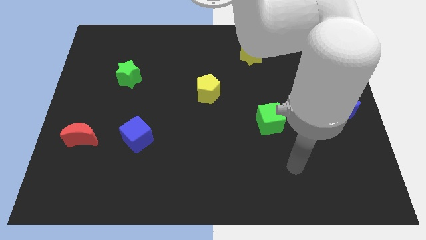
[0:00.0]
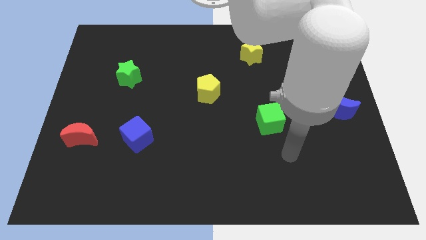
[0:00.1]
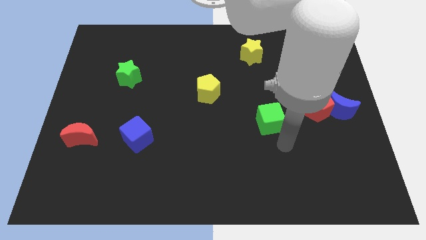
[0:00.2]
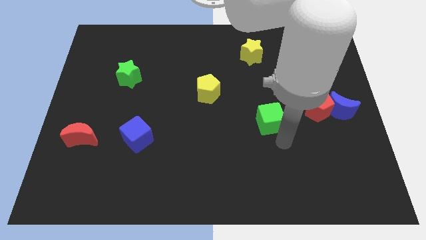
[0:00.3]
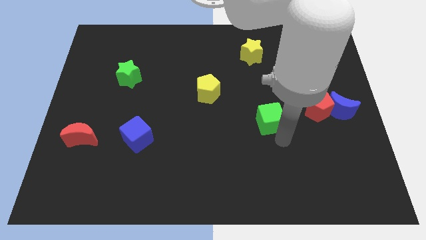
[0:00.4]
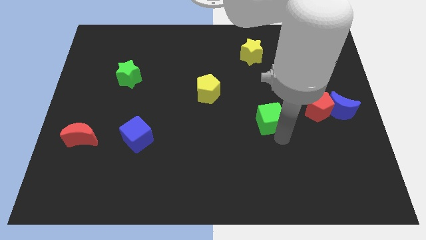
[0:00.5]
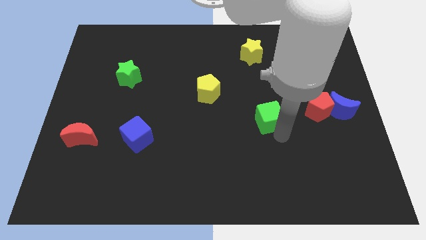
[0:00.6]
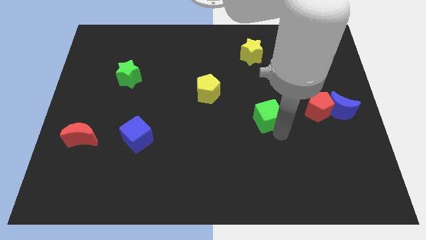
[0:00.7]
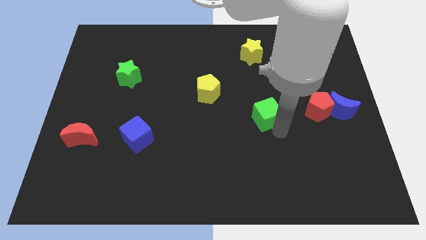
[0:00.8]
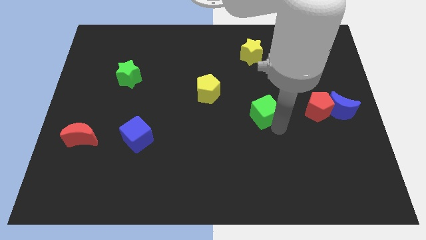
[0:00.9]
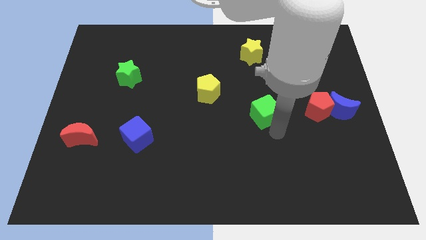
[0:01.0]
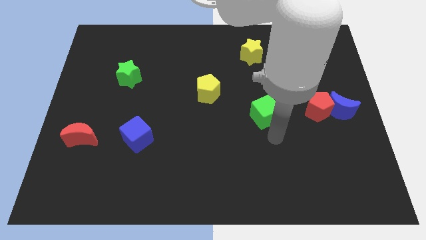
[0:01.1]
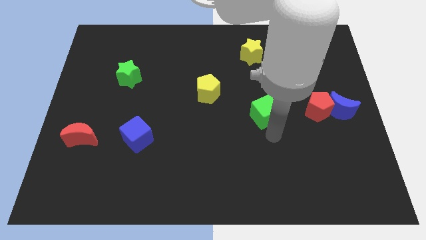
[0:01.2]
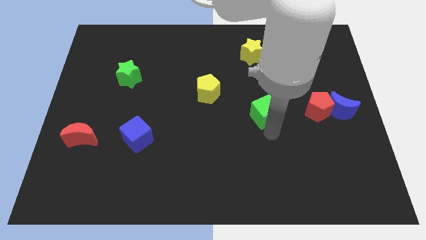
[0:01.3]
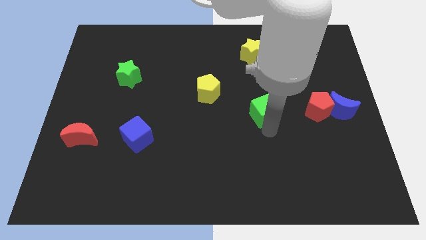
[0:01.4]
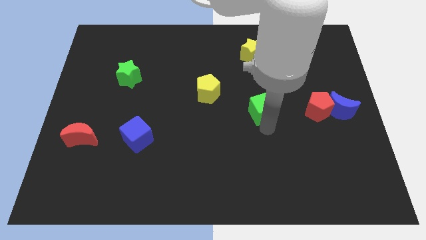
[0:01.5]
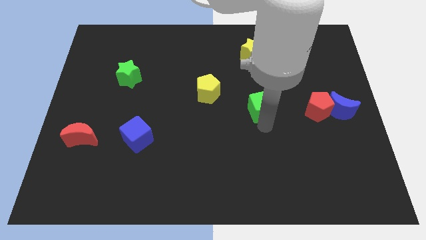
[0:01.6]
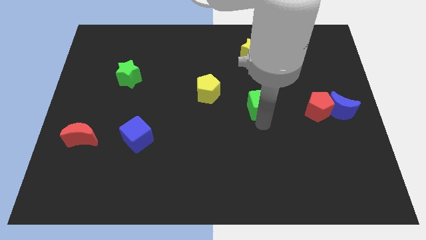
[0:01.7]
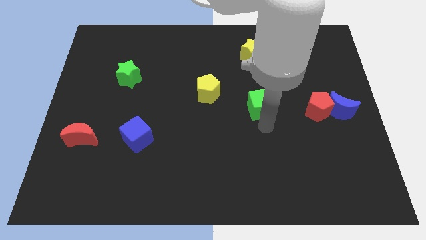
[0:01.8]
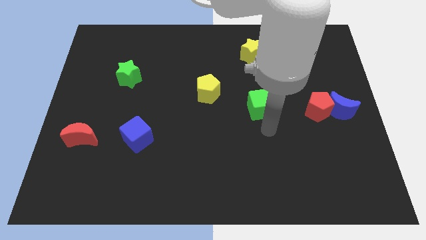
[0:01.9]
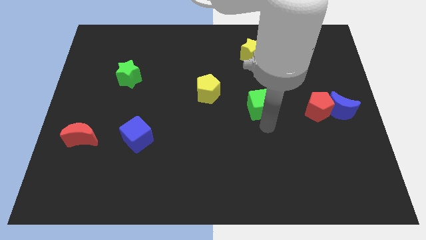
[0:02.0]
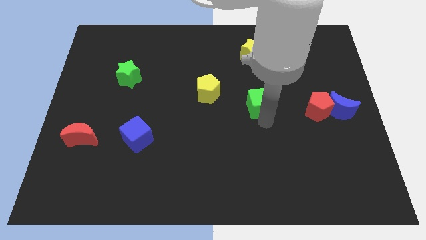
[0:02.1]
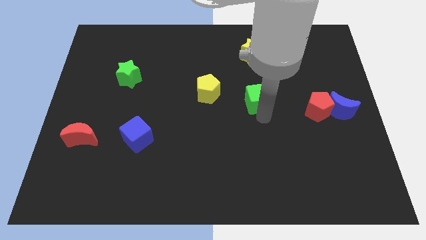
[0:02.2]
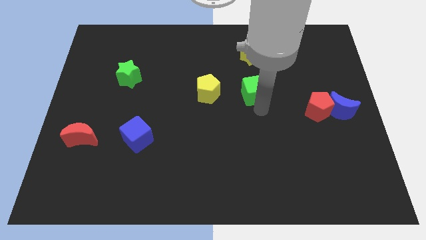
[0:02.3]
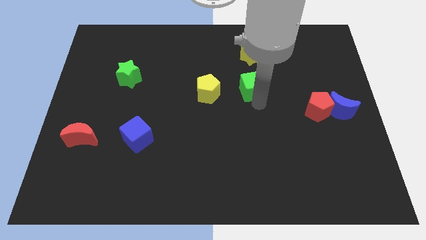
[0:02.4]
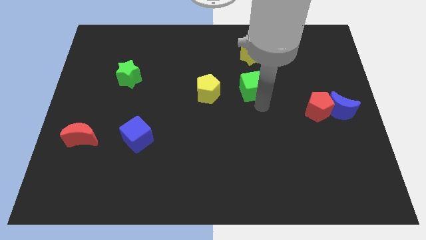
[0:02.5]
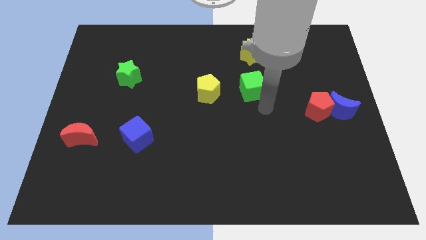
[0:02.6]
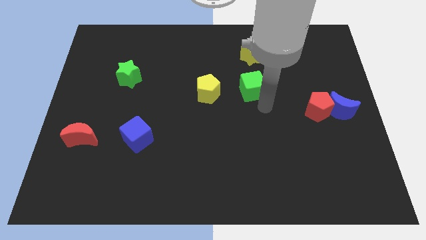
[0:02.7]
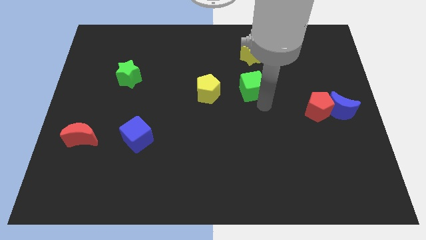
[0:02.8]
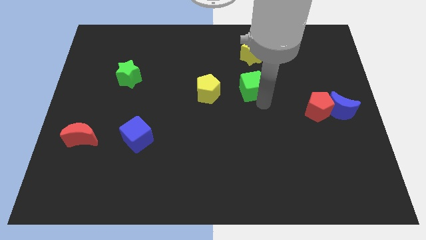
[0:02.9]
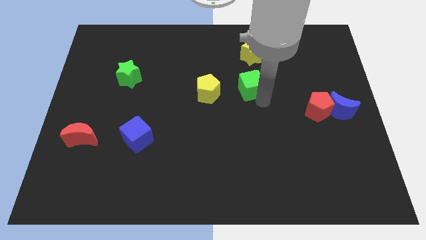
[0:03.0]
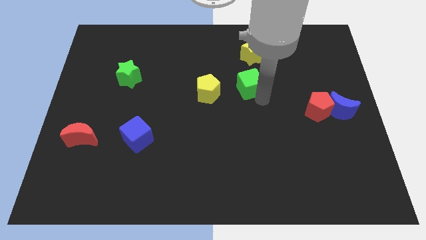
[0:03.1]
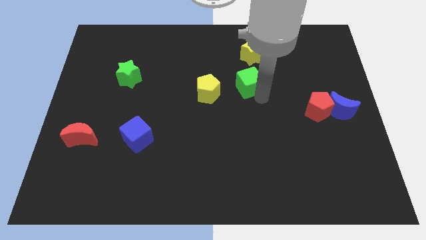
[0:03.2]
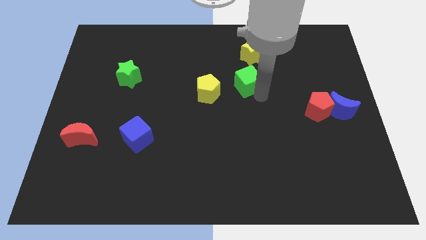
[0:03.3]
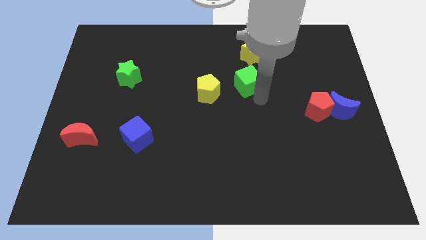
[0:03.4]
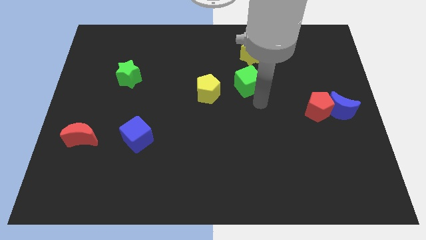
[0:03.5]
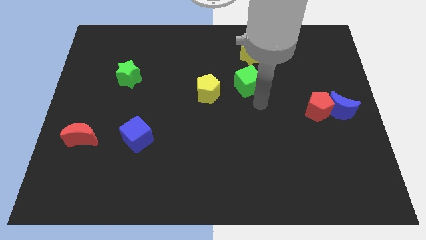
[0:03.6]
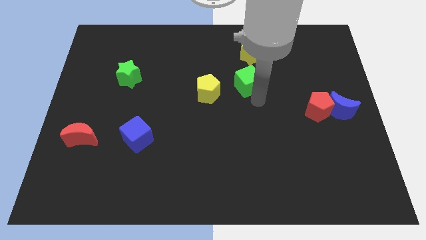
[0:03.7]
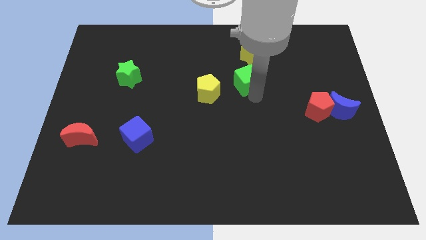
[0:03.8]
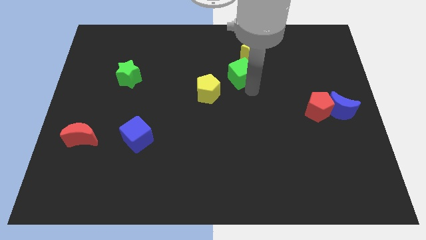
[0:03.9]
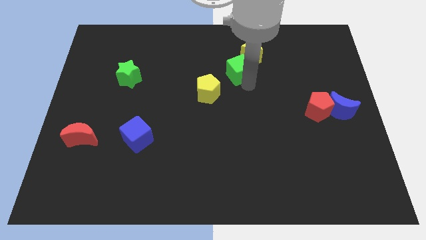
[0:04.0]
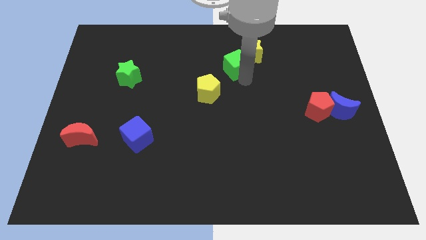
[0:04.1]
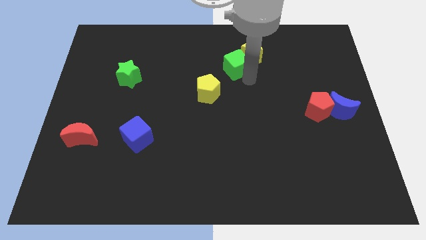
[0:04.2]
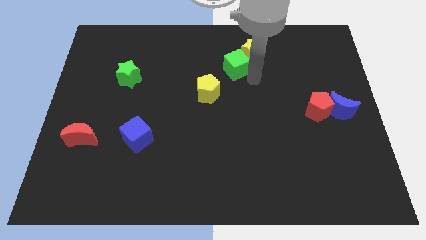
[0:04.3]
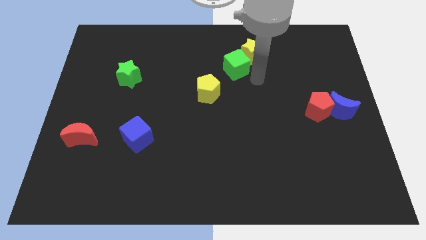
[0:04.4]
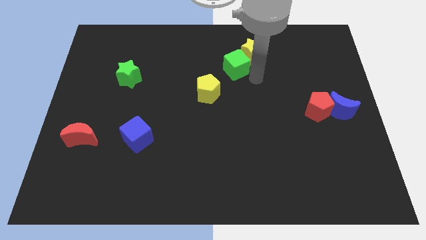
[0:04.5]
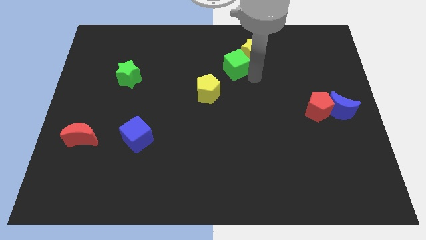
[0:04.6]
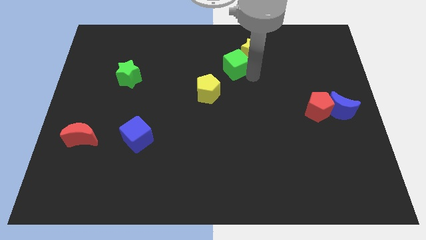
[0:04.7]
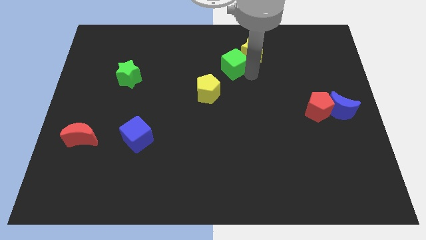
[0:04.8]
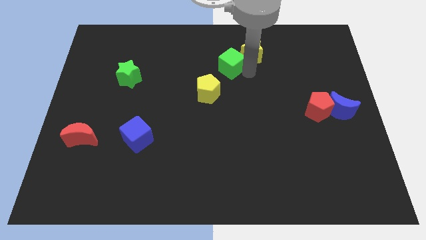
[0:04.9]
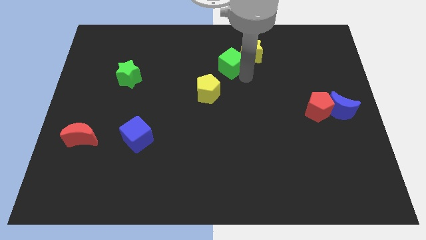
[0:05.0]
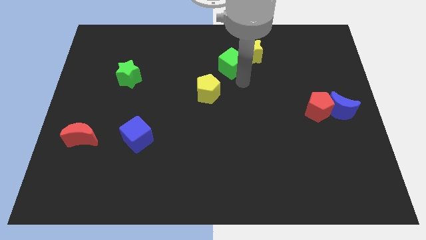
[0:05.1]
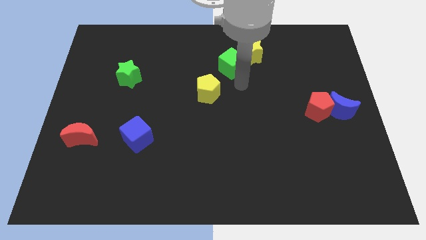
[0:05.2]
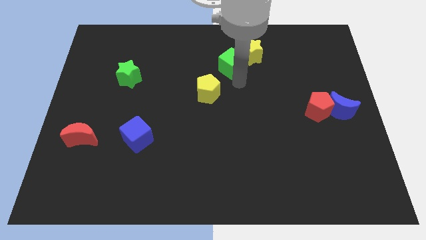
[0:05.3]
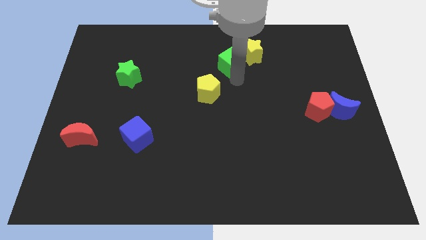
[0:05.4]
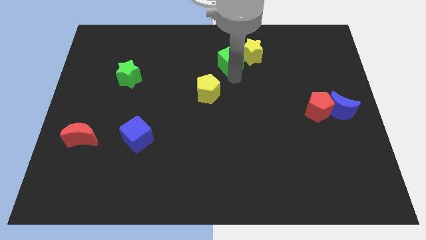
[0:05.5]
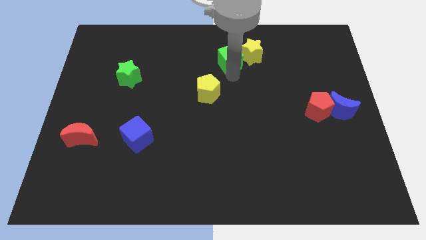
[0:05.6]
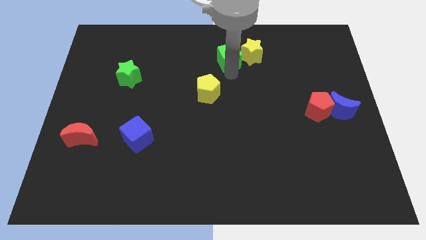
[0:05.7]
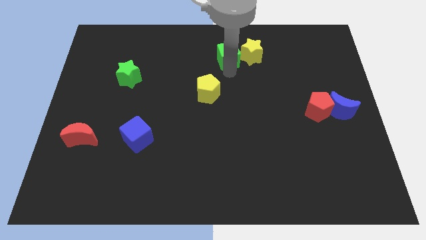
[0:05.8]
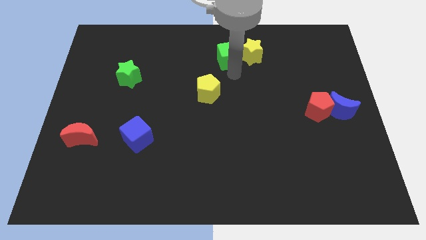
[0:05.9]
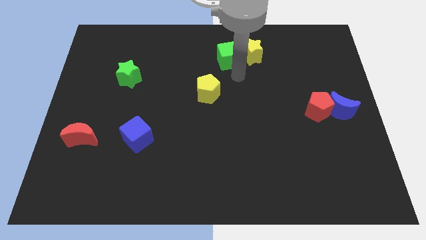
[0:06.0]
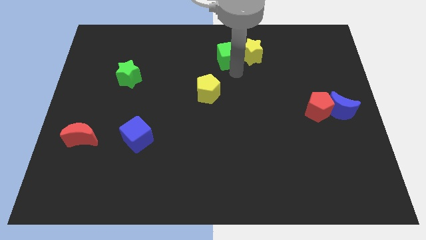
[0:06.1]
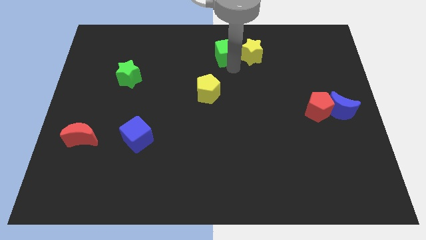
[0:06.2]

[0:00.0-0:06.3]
push the green cube to the towards your base

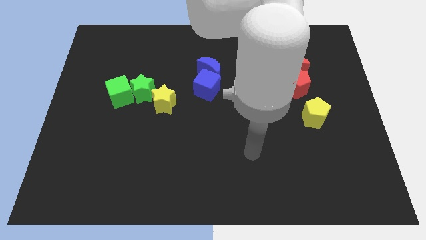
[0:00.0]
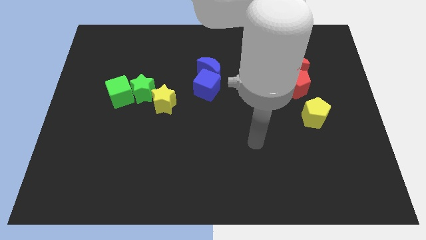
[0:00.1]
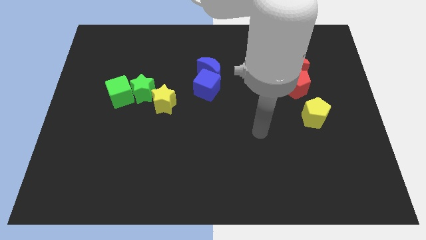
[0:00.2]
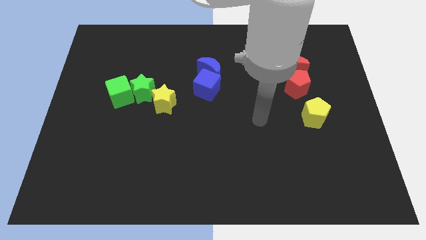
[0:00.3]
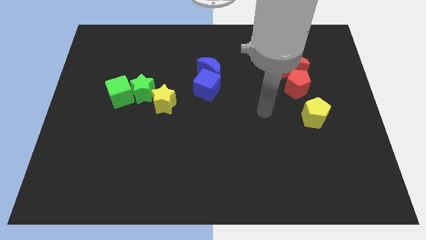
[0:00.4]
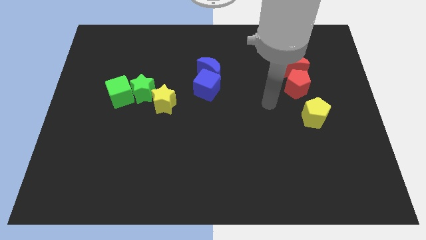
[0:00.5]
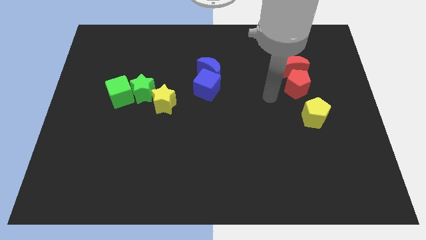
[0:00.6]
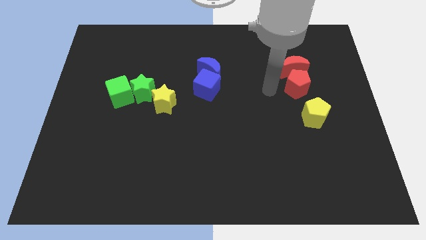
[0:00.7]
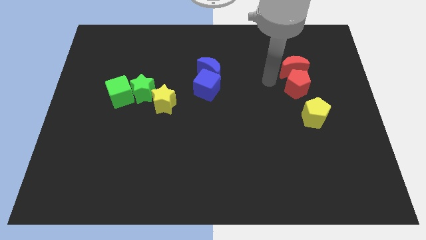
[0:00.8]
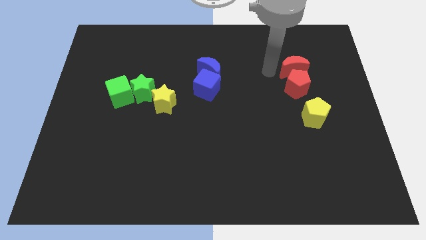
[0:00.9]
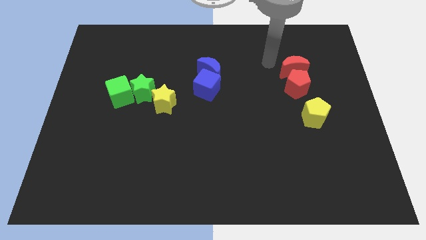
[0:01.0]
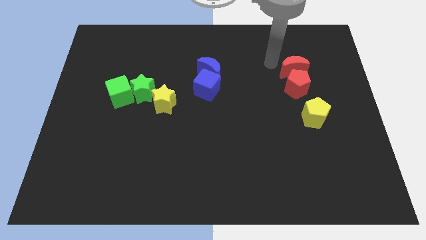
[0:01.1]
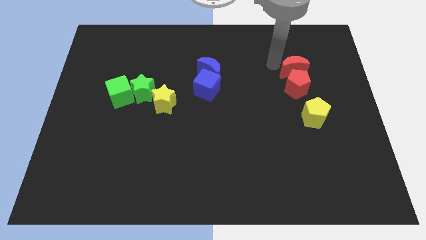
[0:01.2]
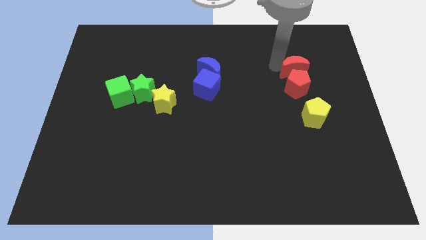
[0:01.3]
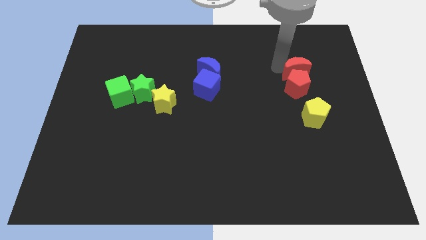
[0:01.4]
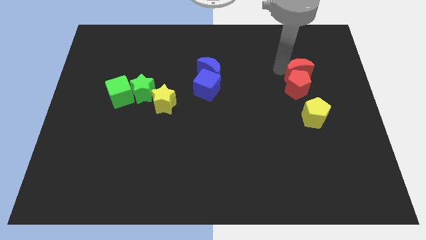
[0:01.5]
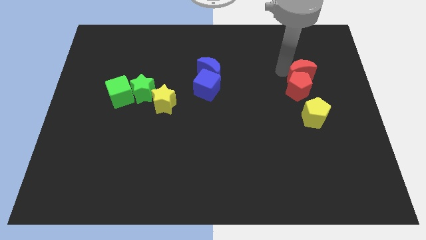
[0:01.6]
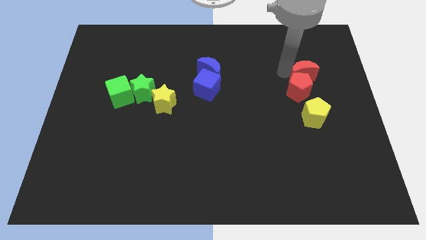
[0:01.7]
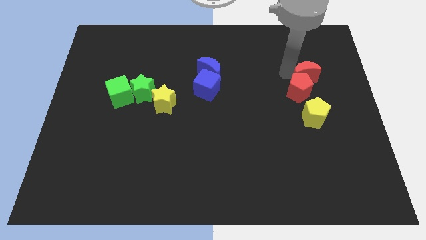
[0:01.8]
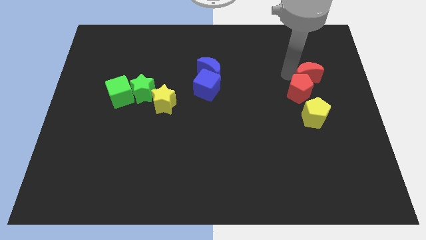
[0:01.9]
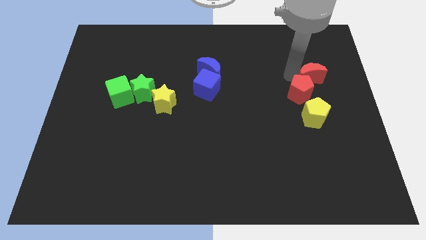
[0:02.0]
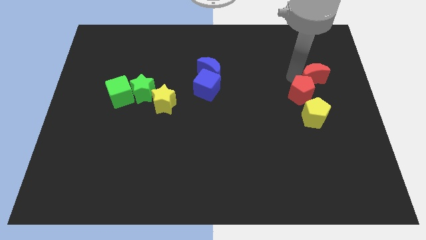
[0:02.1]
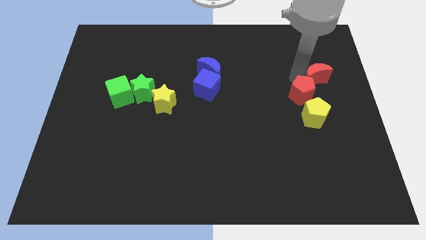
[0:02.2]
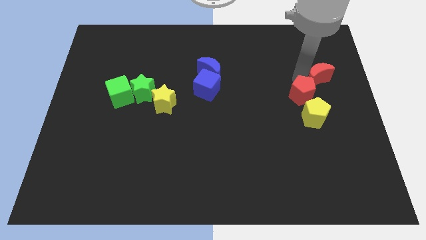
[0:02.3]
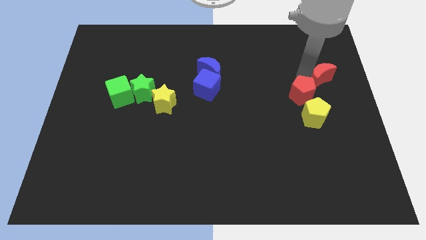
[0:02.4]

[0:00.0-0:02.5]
push the red moon to the right side
